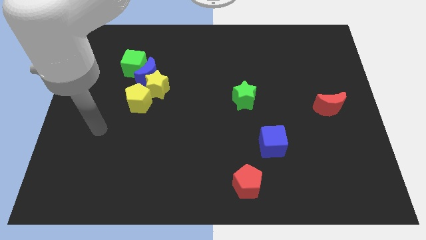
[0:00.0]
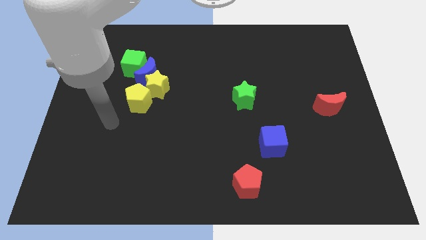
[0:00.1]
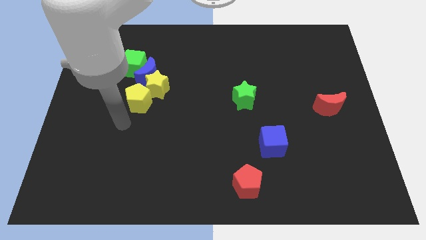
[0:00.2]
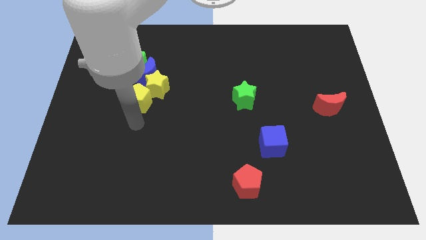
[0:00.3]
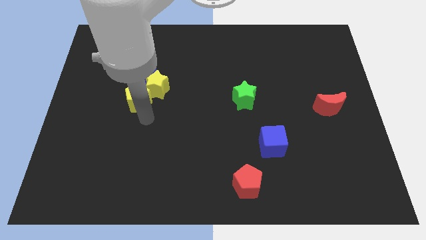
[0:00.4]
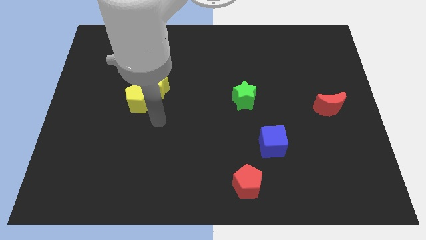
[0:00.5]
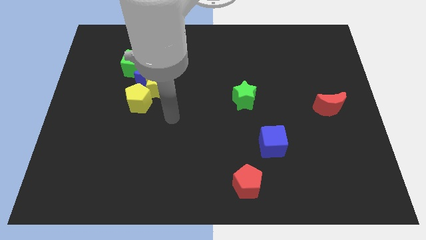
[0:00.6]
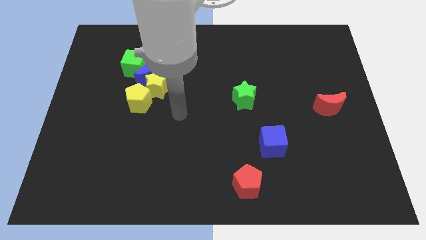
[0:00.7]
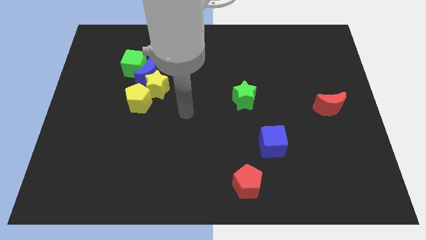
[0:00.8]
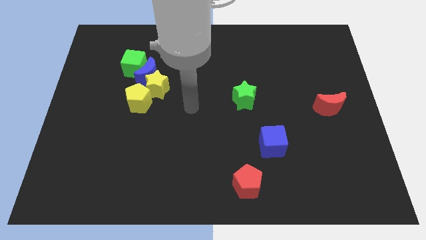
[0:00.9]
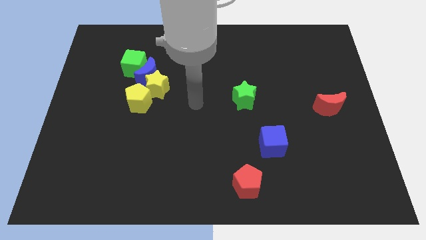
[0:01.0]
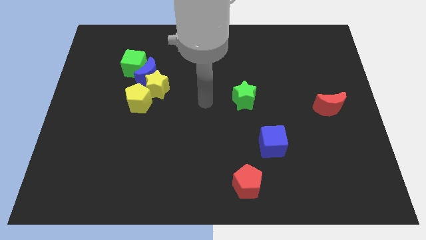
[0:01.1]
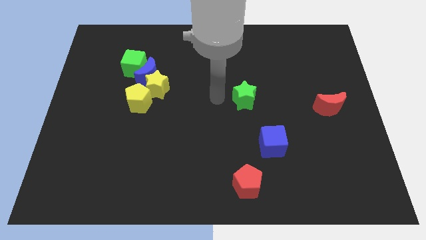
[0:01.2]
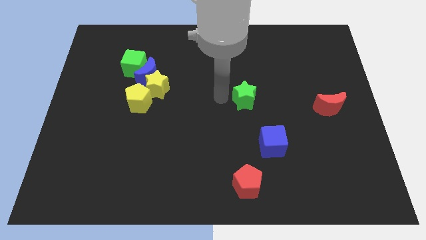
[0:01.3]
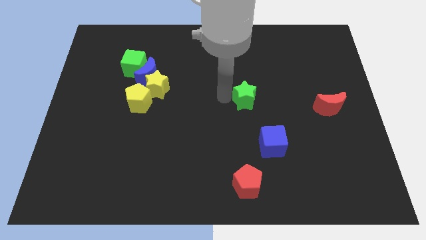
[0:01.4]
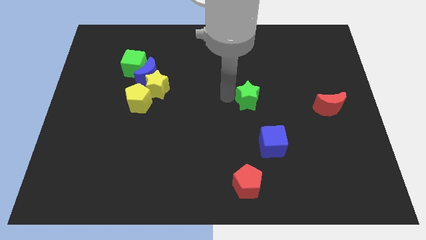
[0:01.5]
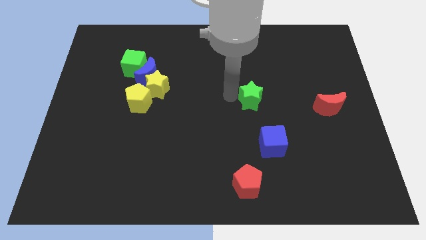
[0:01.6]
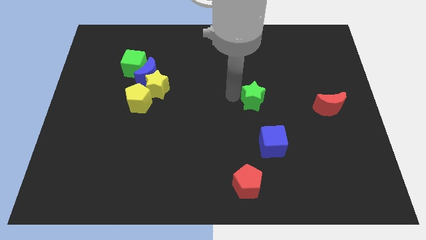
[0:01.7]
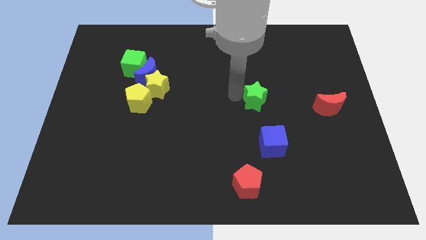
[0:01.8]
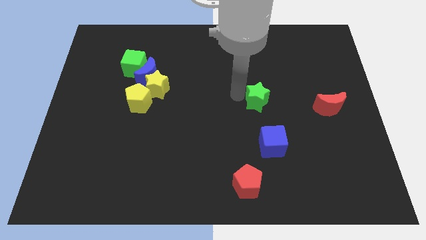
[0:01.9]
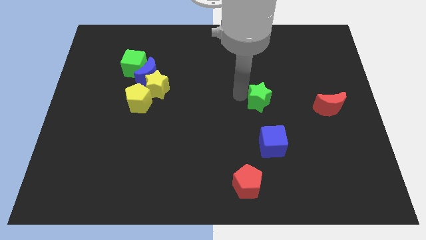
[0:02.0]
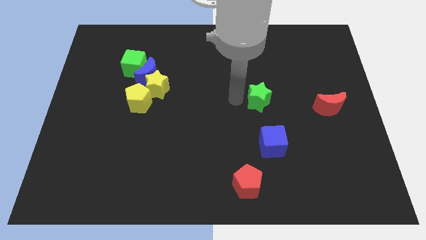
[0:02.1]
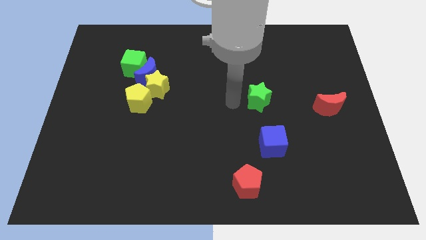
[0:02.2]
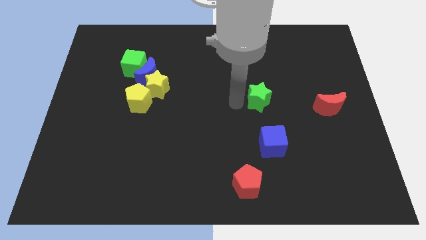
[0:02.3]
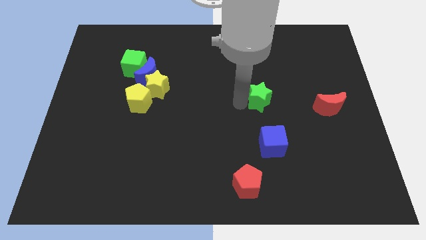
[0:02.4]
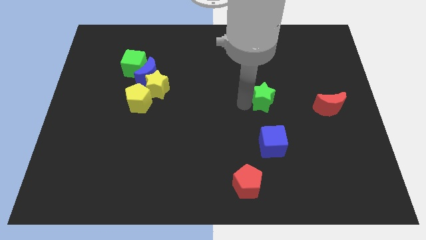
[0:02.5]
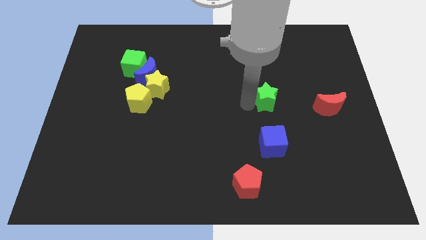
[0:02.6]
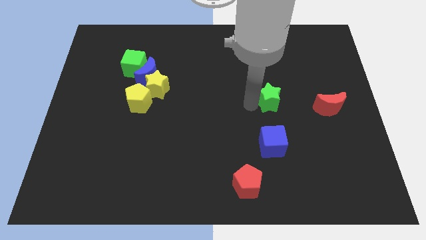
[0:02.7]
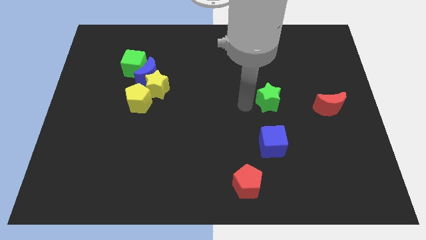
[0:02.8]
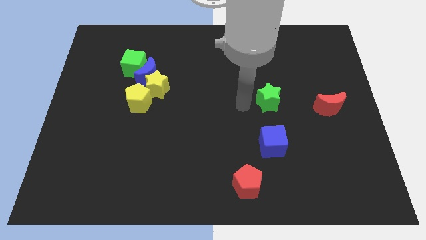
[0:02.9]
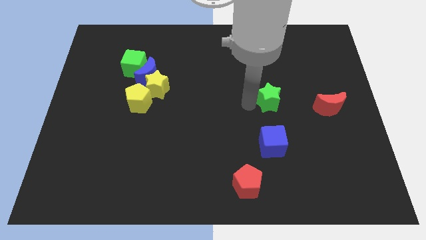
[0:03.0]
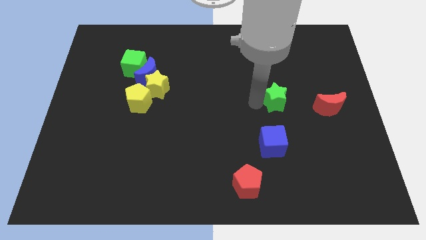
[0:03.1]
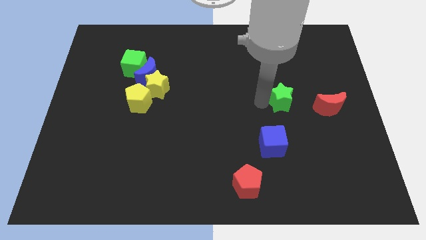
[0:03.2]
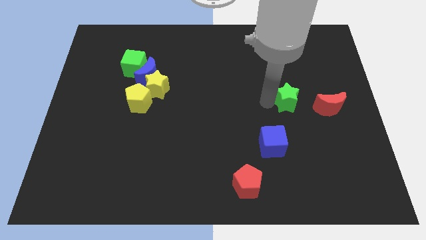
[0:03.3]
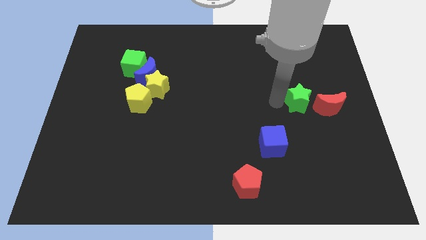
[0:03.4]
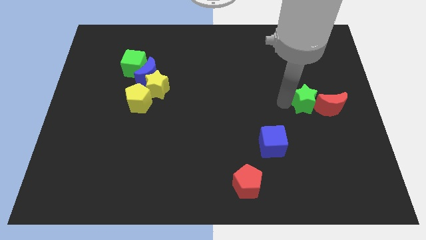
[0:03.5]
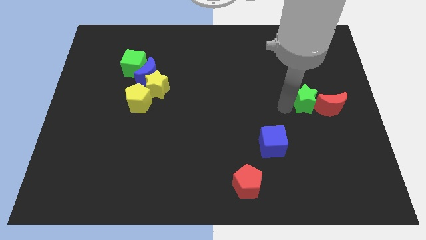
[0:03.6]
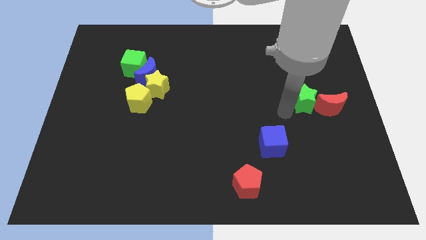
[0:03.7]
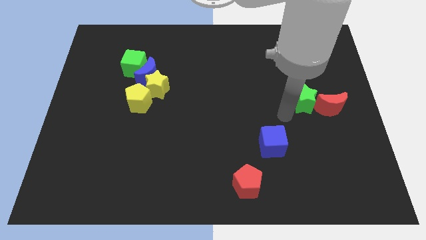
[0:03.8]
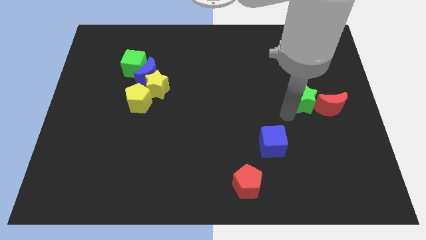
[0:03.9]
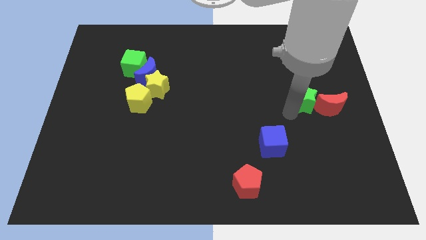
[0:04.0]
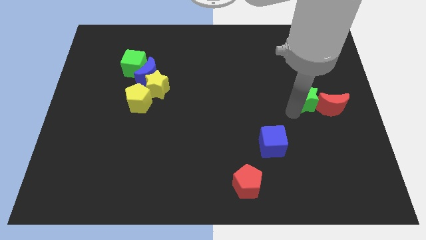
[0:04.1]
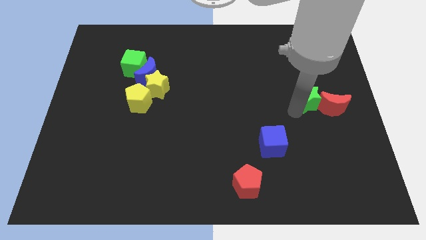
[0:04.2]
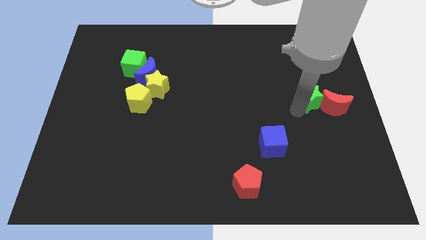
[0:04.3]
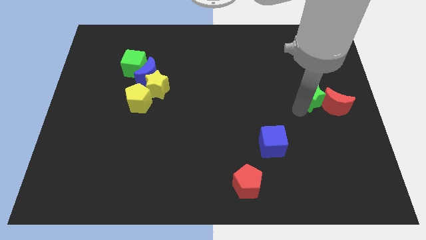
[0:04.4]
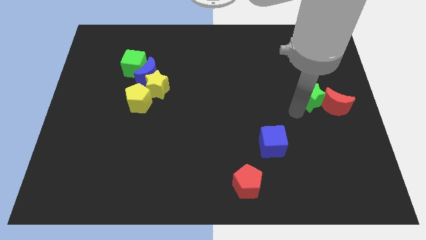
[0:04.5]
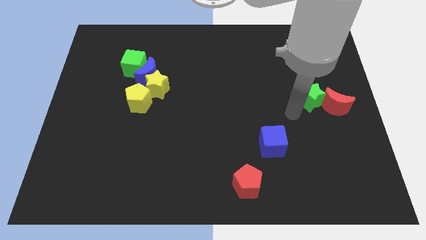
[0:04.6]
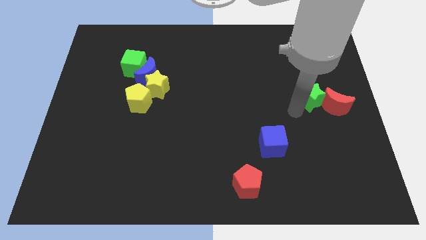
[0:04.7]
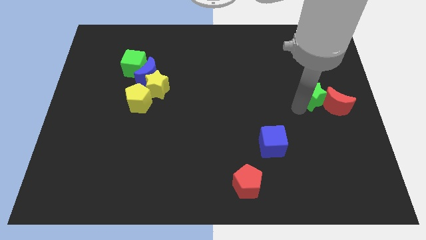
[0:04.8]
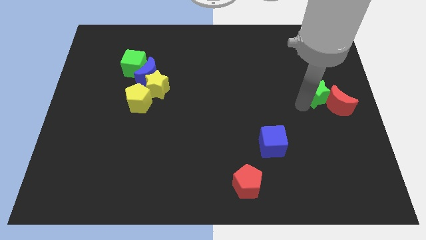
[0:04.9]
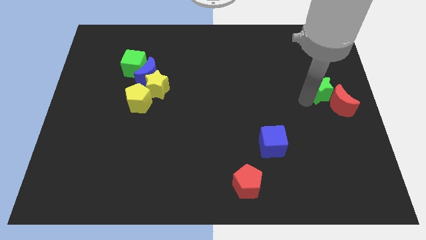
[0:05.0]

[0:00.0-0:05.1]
push the green star to the right side of the board

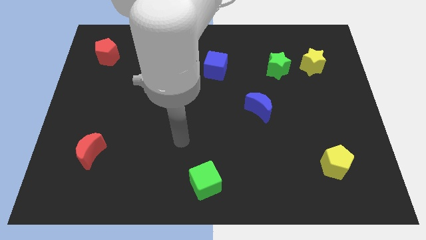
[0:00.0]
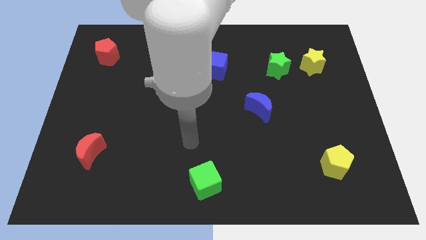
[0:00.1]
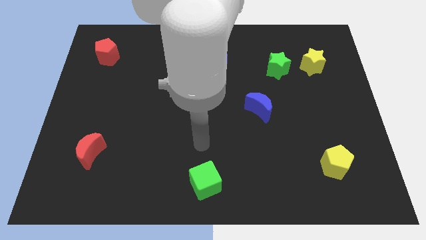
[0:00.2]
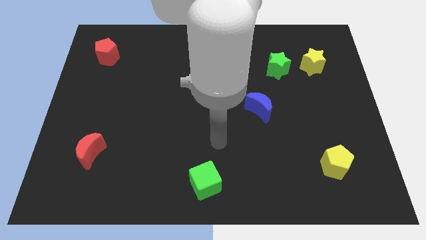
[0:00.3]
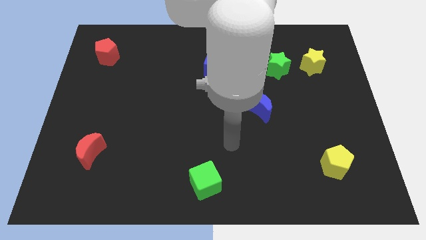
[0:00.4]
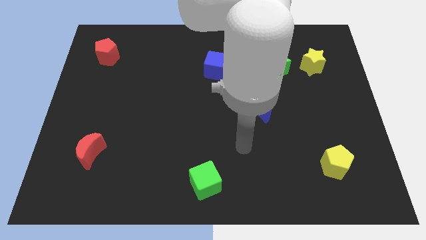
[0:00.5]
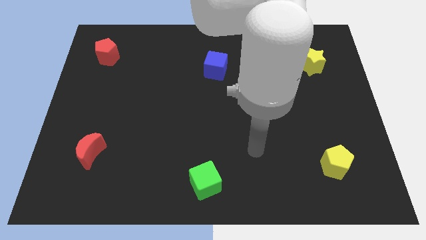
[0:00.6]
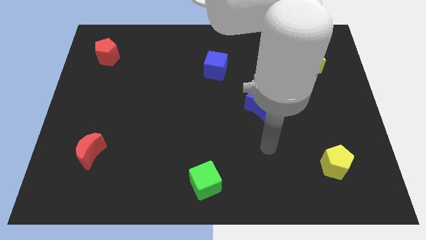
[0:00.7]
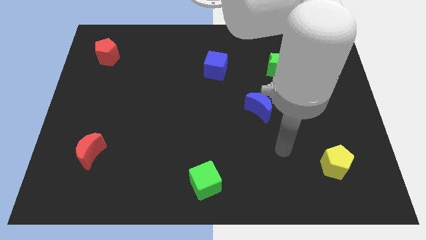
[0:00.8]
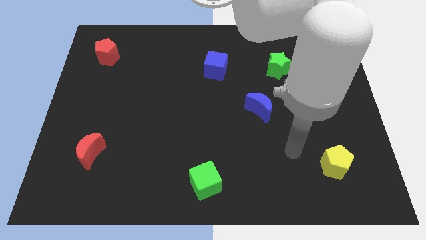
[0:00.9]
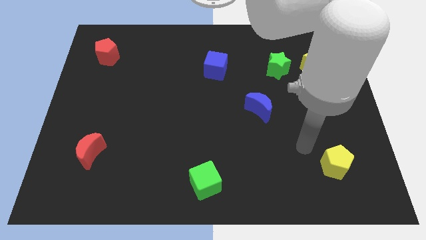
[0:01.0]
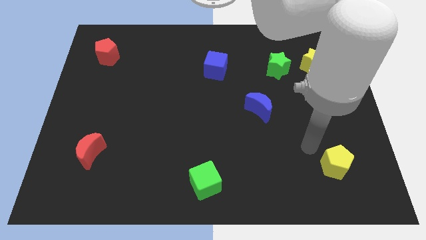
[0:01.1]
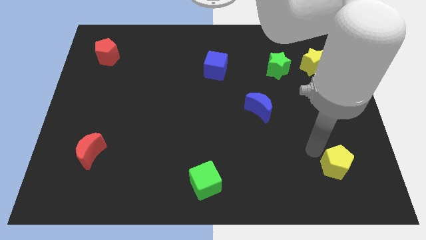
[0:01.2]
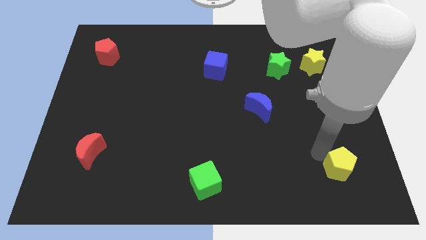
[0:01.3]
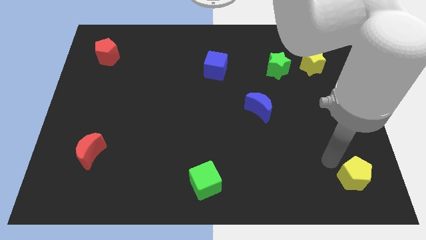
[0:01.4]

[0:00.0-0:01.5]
push the yellow pentagon to the lower right corner

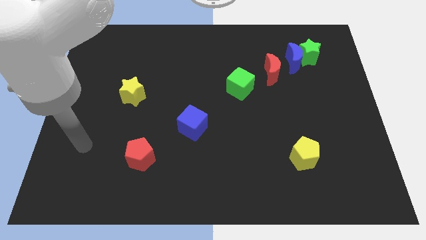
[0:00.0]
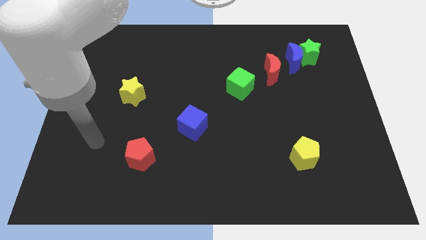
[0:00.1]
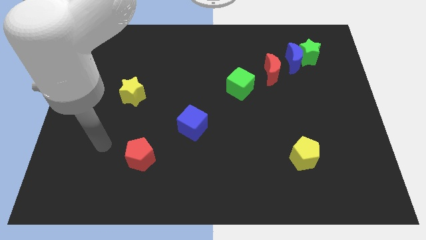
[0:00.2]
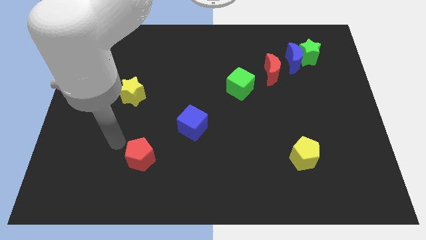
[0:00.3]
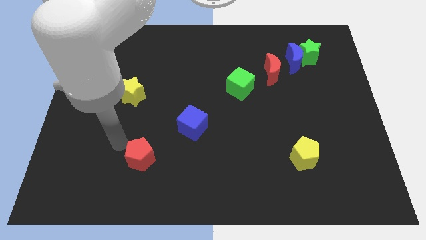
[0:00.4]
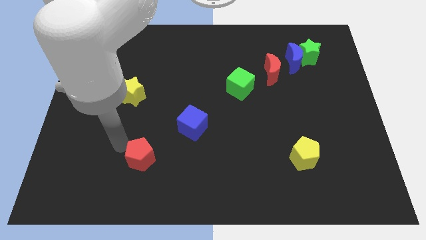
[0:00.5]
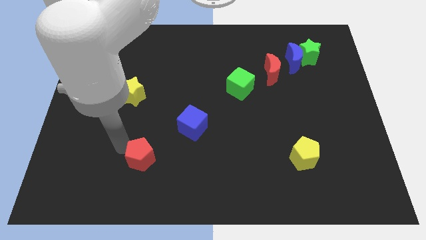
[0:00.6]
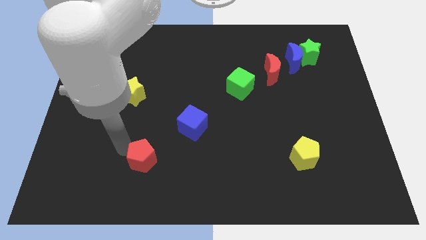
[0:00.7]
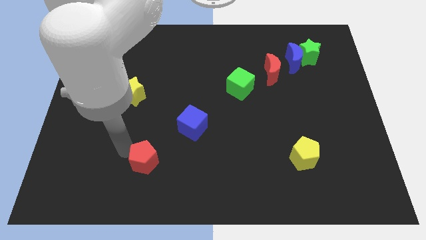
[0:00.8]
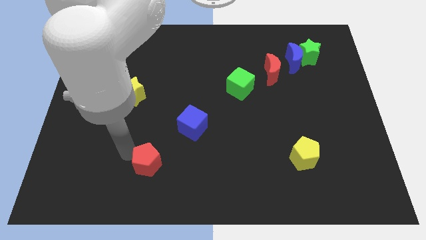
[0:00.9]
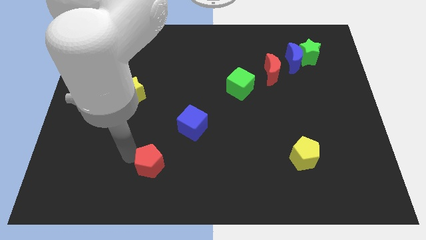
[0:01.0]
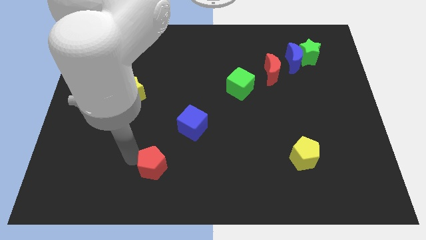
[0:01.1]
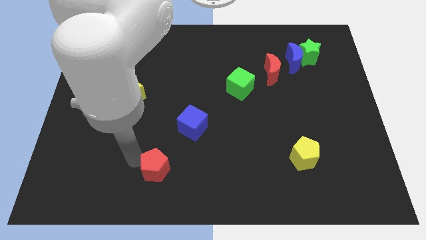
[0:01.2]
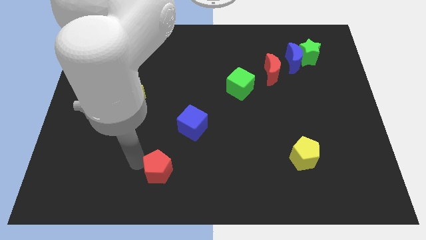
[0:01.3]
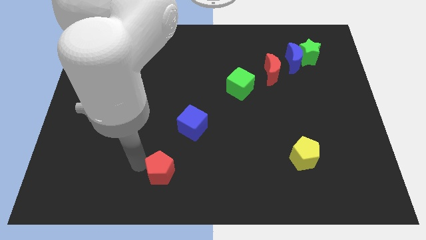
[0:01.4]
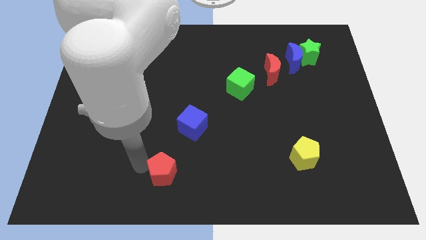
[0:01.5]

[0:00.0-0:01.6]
put the red pentagon to the bottom
